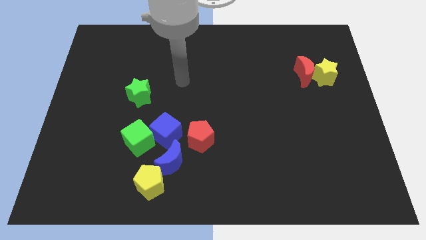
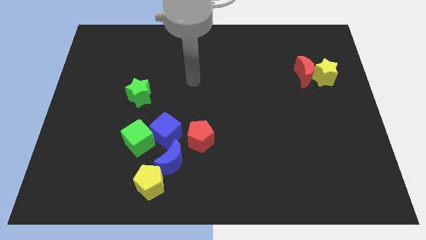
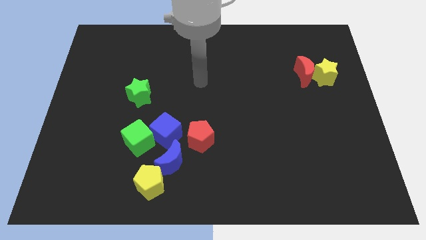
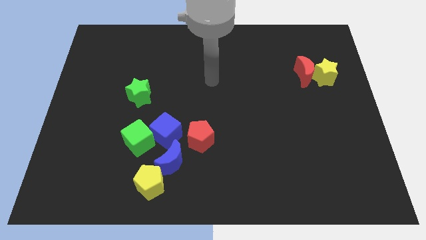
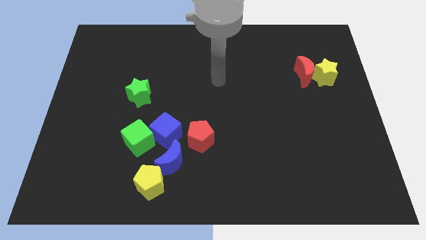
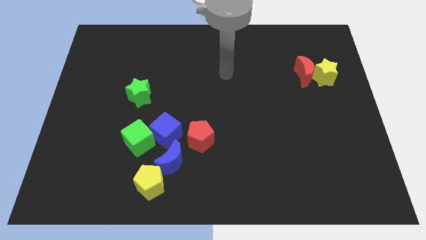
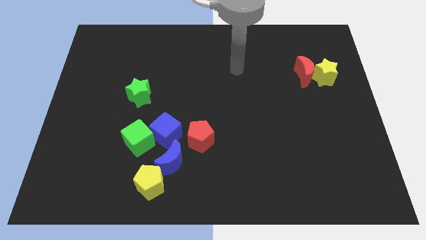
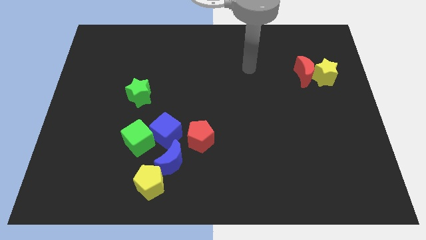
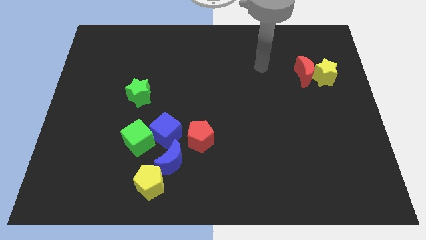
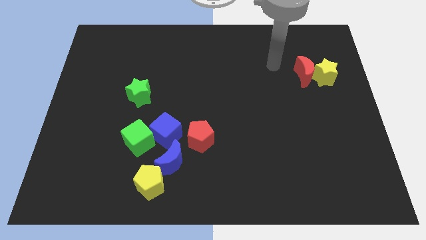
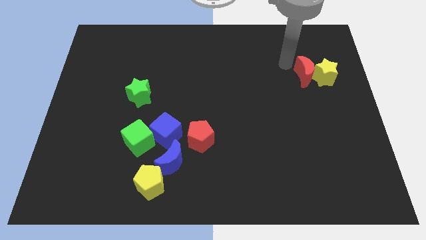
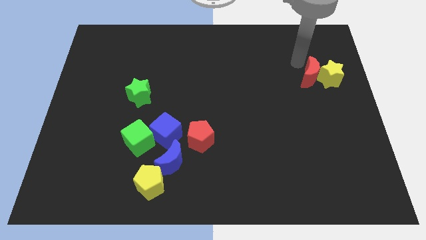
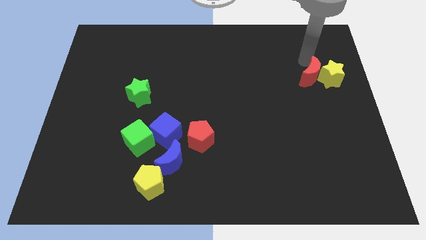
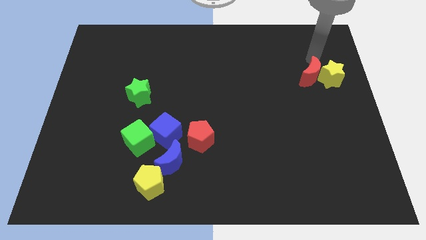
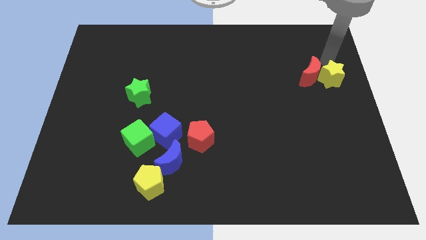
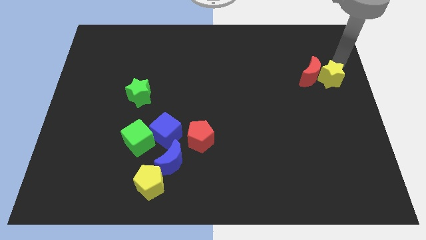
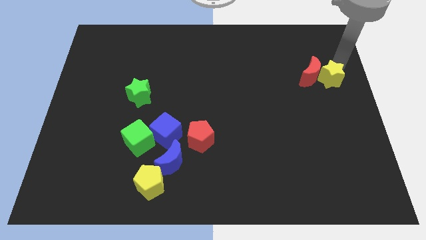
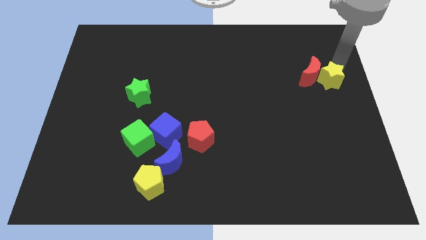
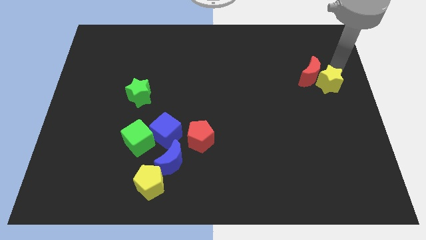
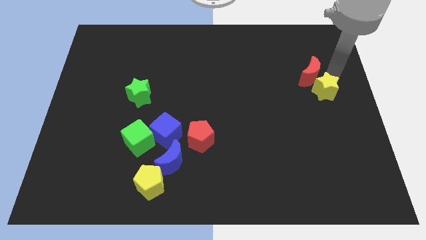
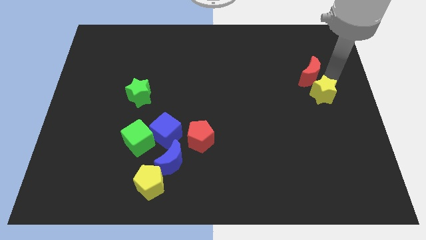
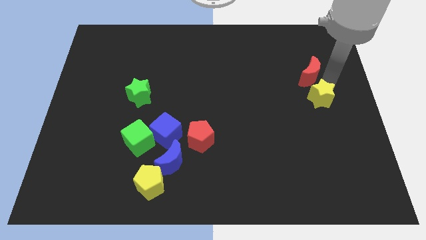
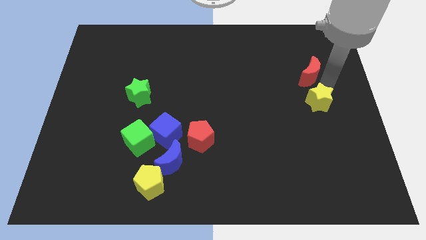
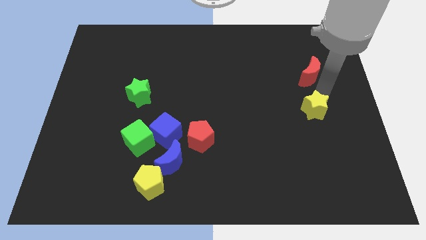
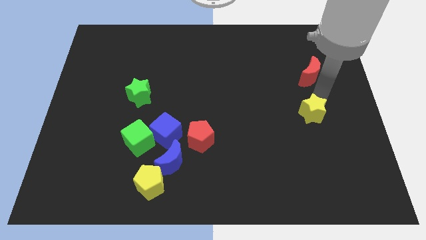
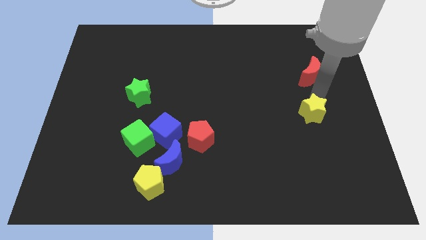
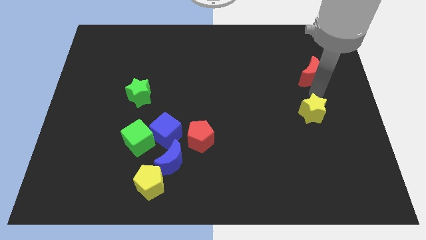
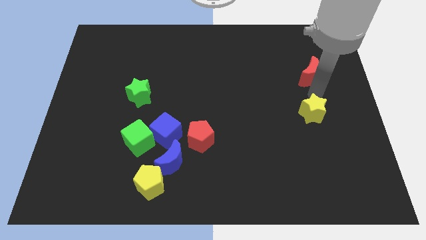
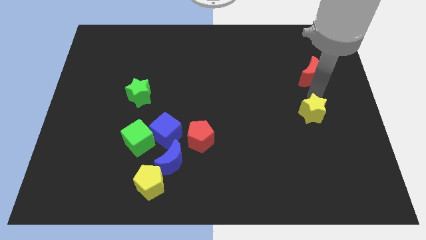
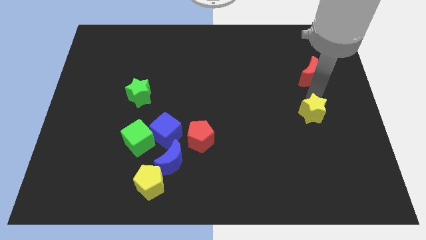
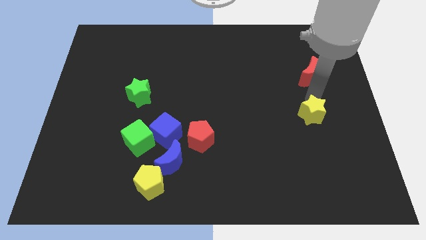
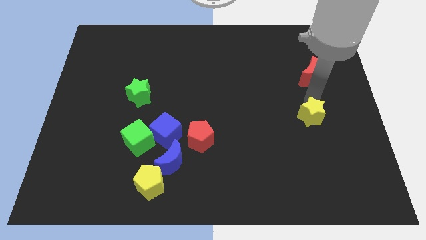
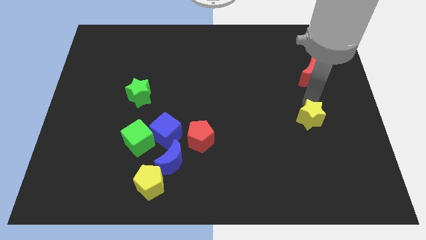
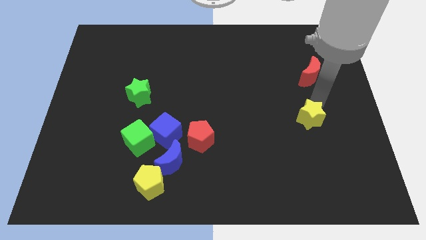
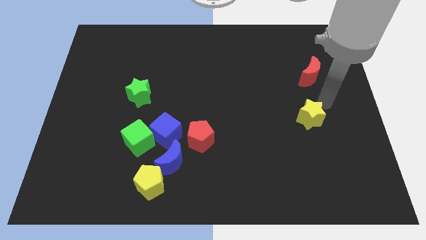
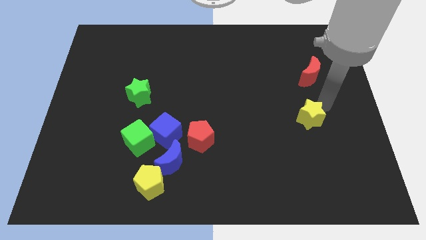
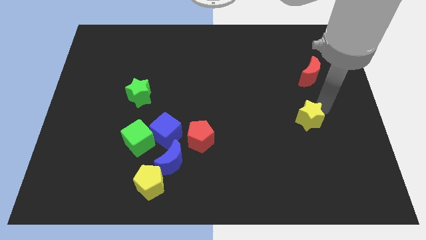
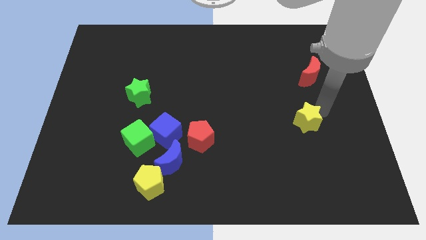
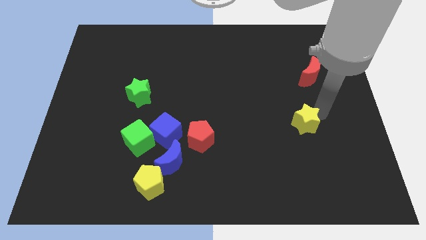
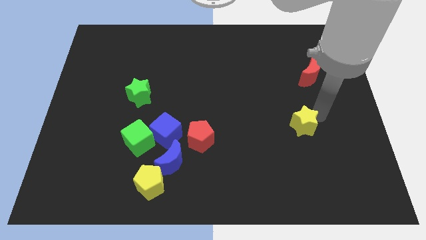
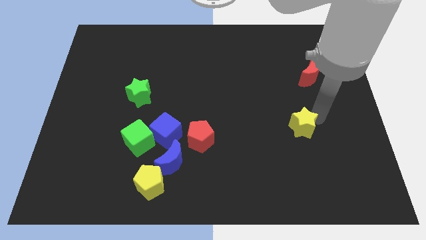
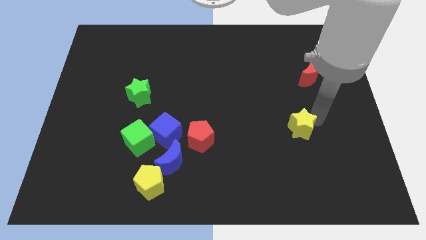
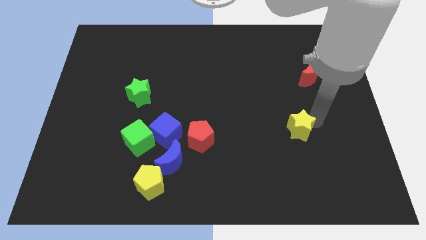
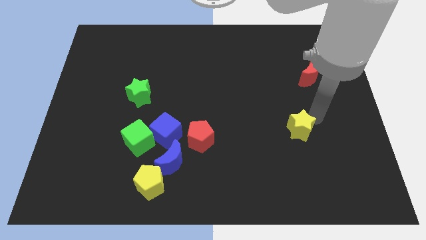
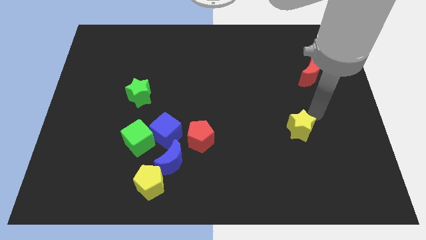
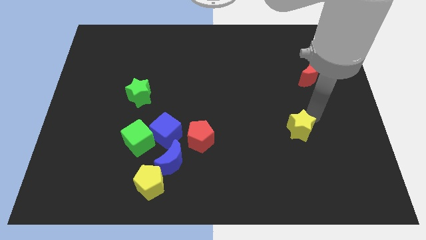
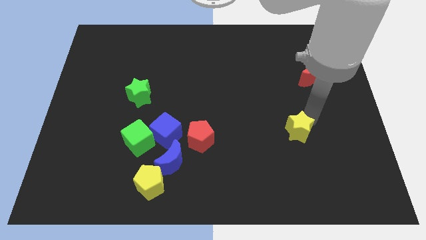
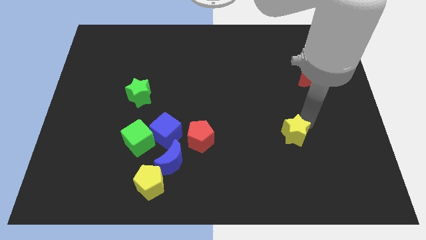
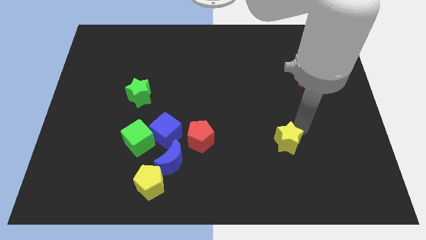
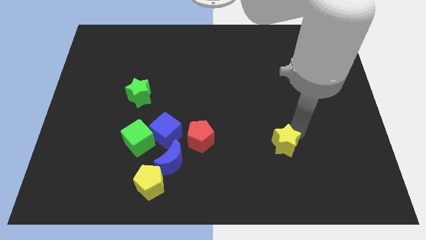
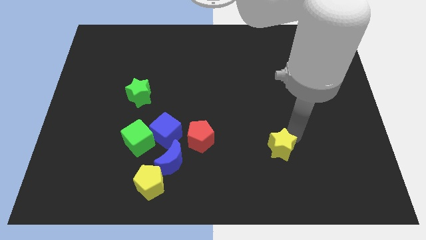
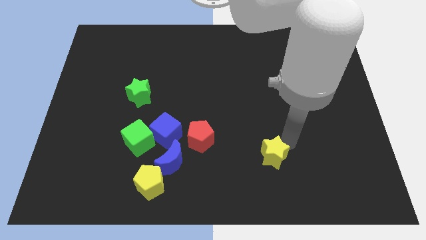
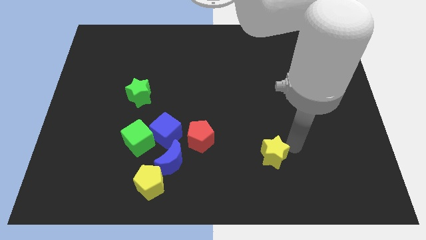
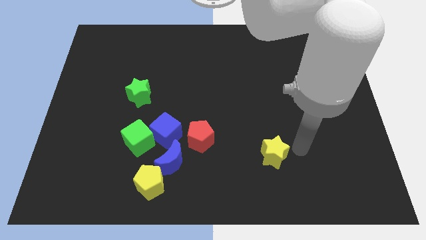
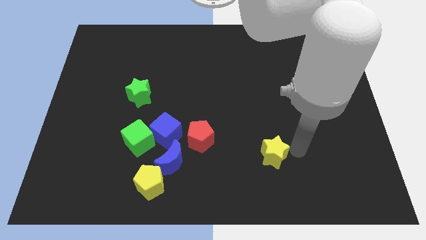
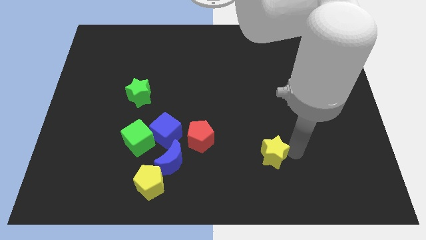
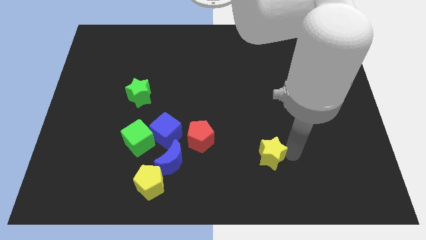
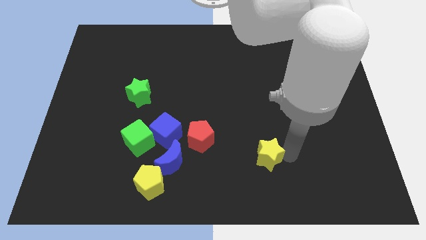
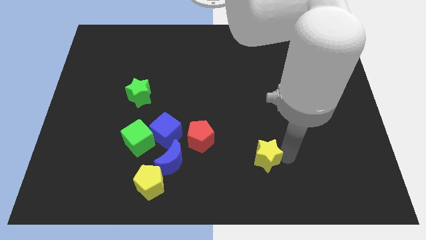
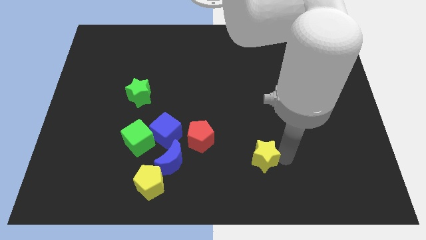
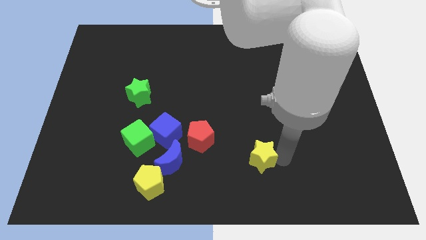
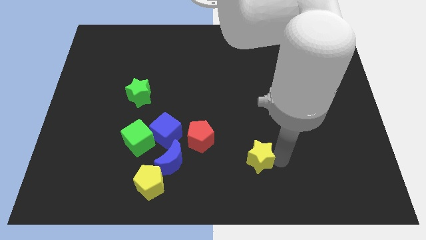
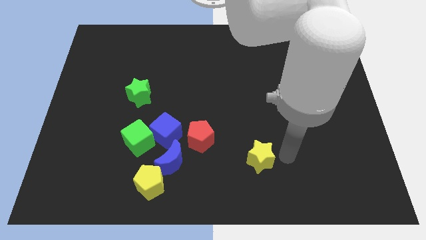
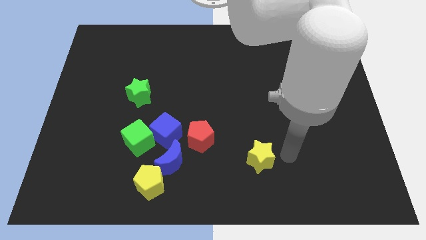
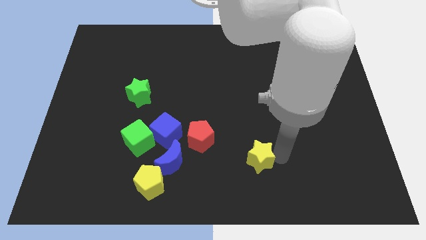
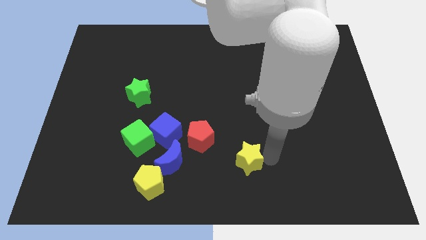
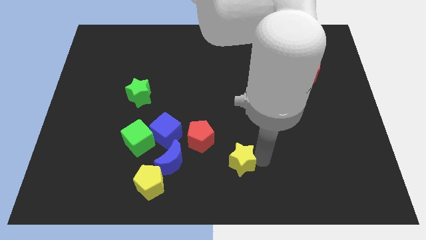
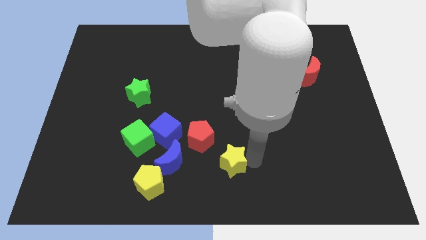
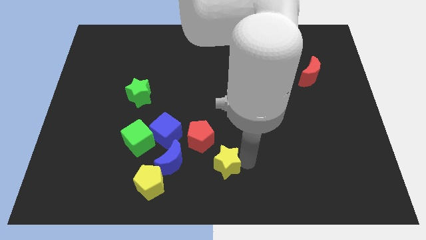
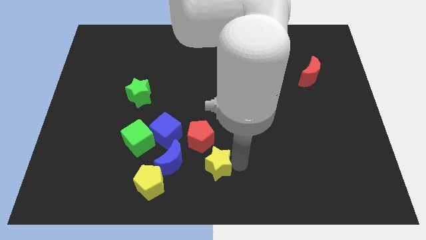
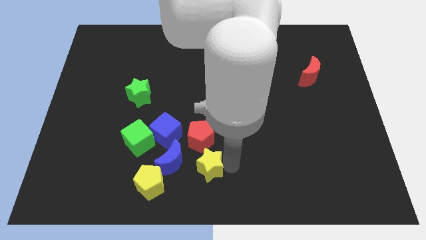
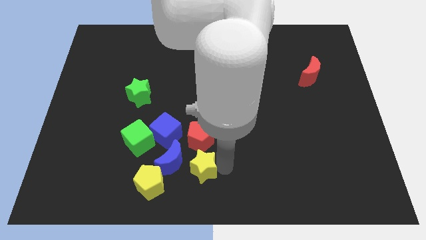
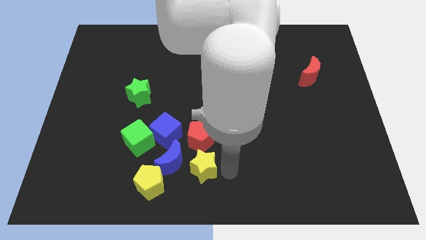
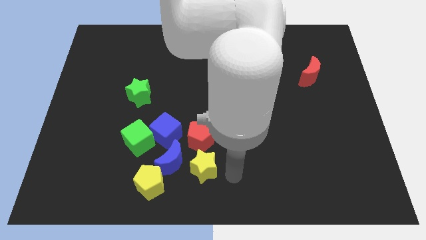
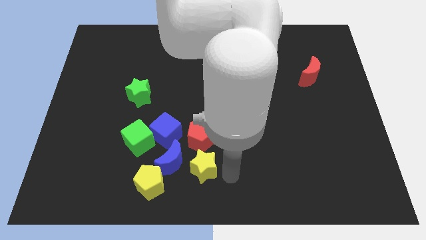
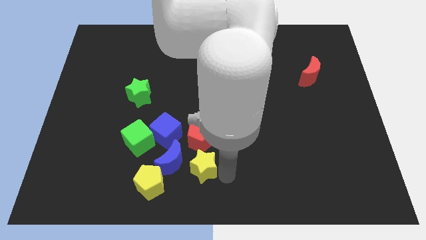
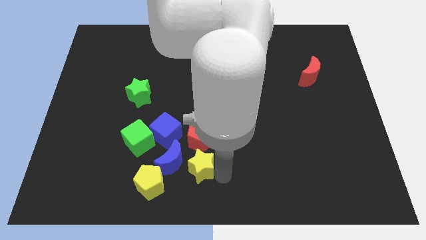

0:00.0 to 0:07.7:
put the yellow star towards the blue moon

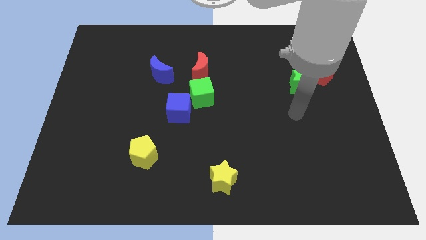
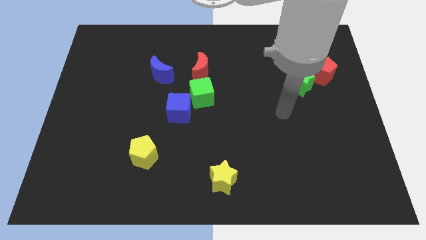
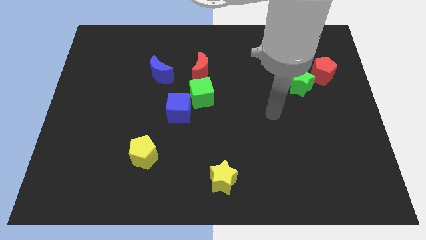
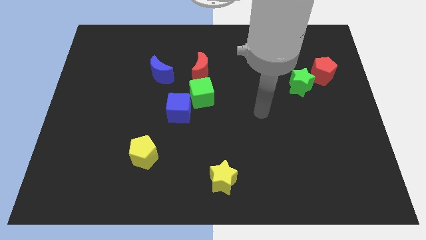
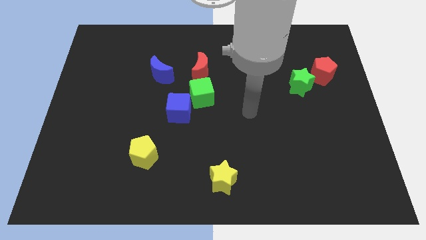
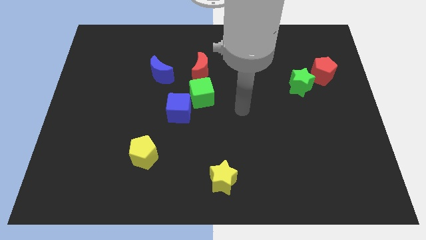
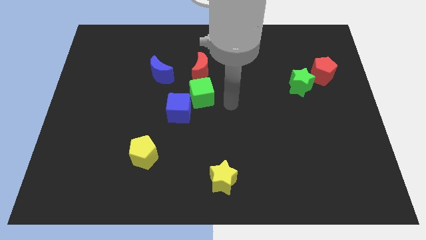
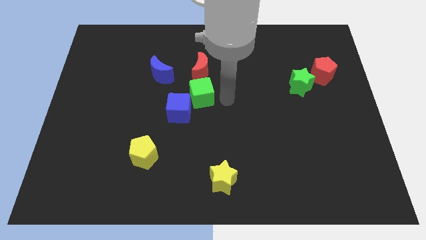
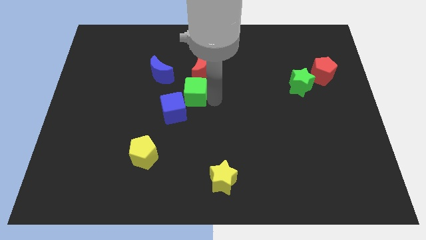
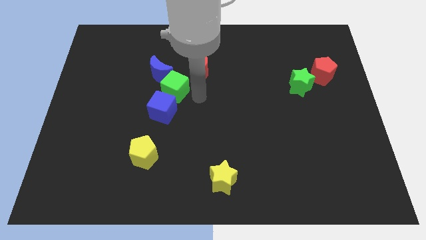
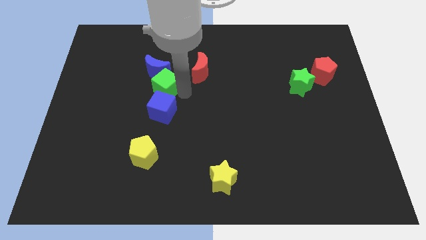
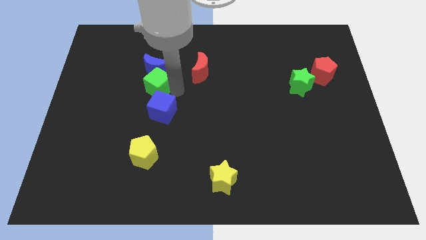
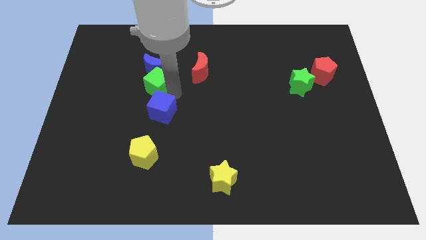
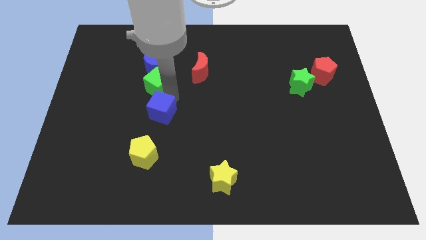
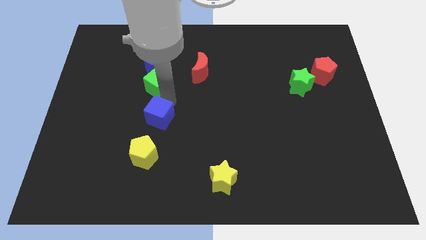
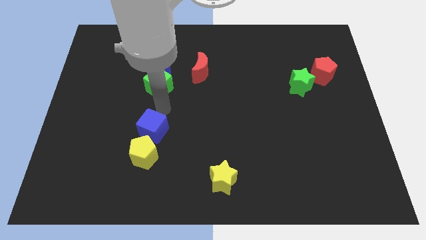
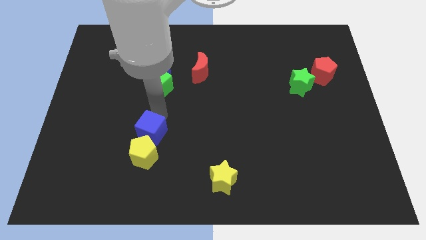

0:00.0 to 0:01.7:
slide the blue cube to the yellow pentagon
